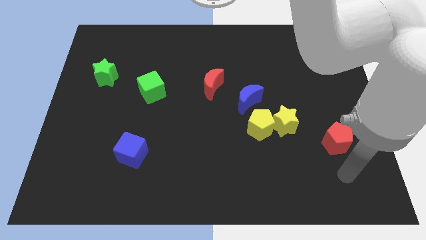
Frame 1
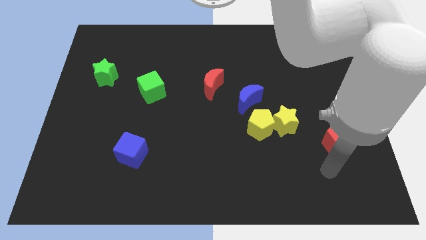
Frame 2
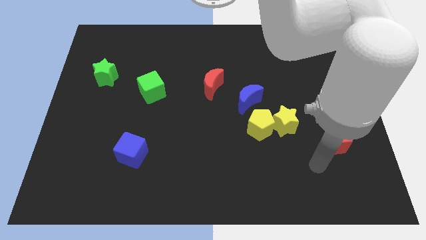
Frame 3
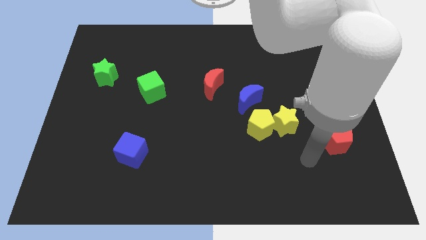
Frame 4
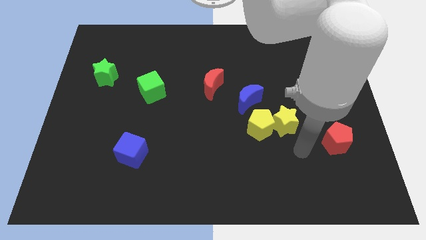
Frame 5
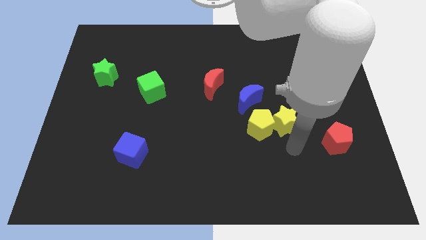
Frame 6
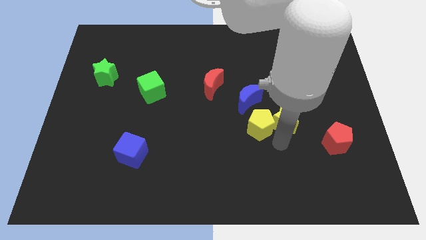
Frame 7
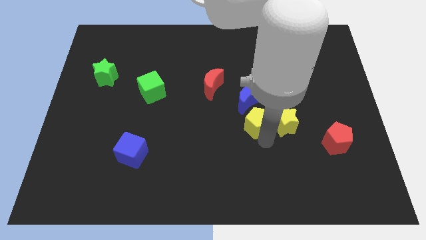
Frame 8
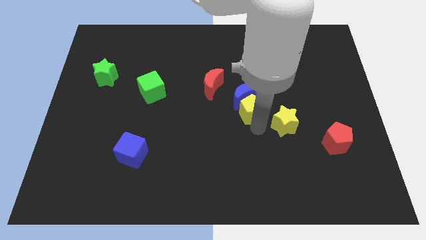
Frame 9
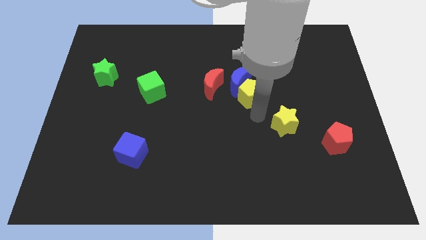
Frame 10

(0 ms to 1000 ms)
separate the yellow star from the yellow pentagon

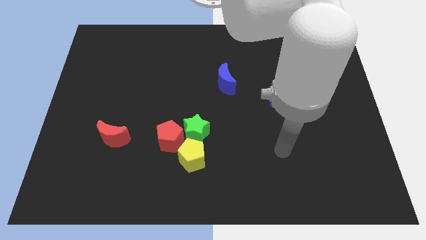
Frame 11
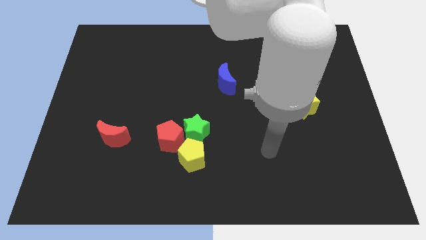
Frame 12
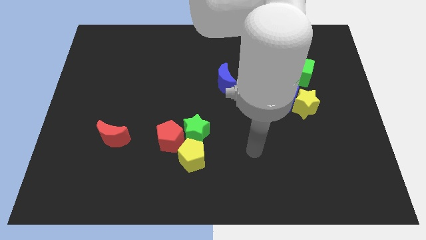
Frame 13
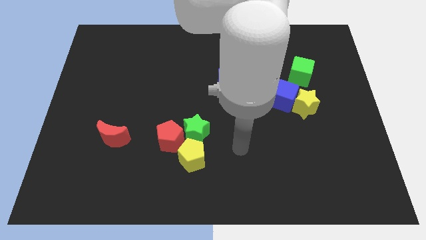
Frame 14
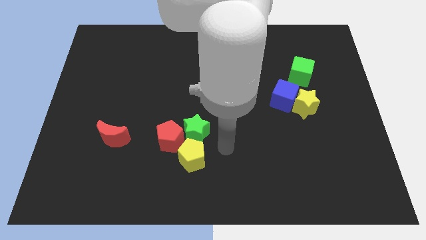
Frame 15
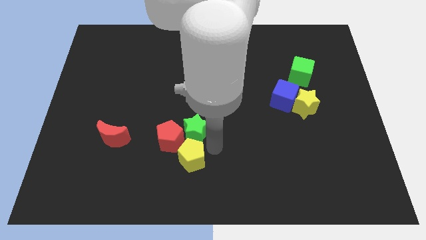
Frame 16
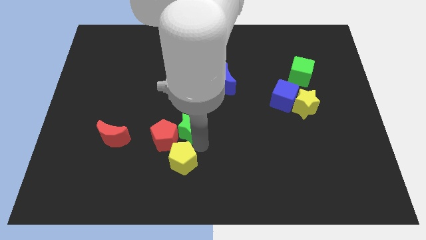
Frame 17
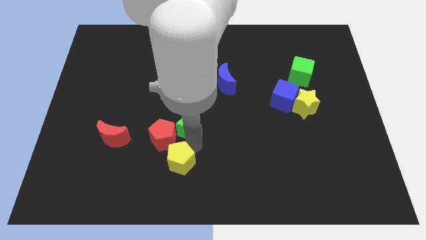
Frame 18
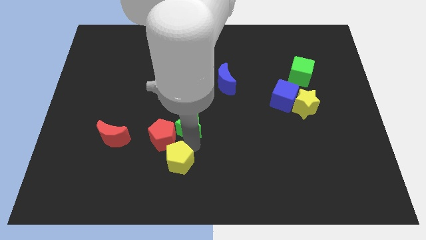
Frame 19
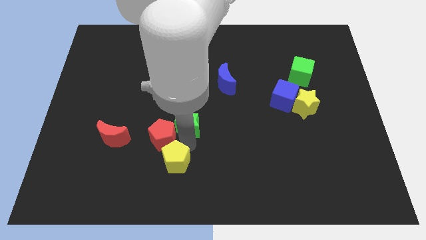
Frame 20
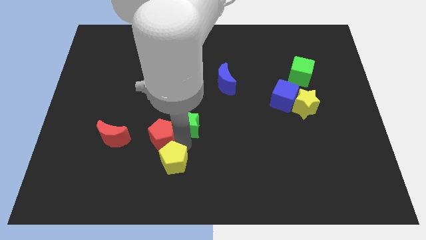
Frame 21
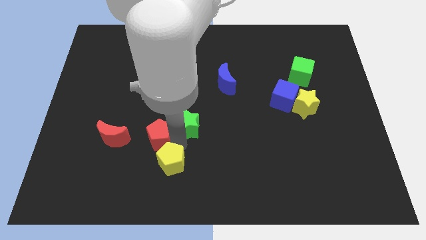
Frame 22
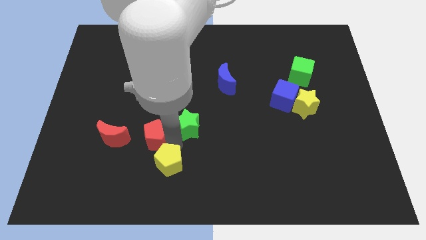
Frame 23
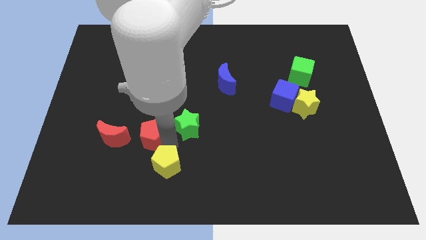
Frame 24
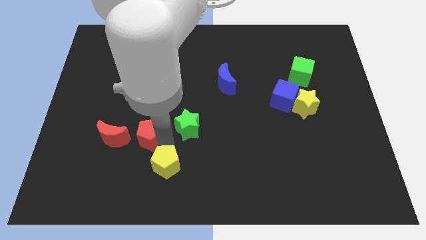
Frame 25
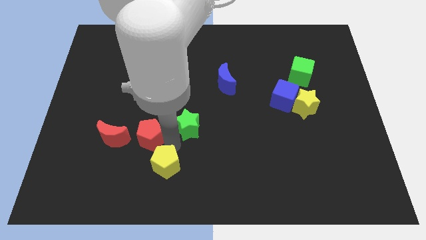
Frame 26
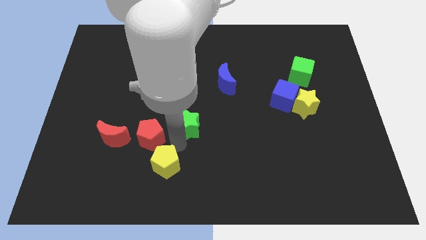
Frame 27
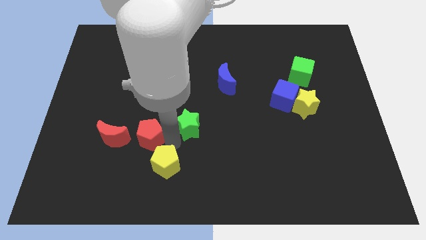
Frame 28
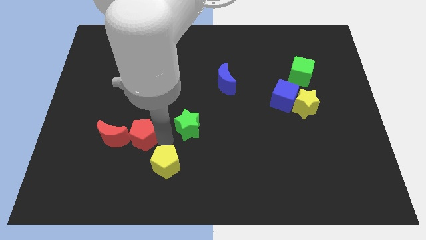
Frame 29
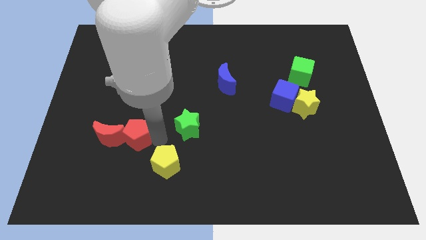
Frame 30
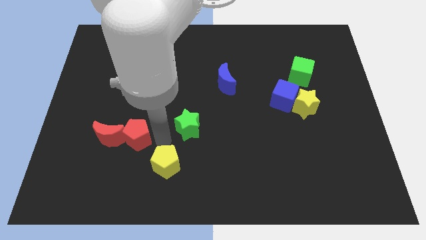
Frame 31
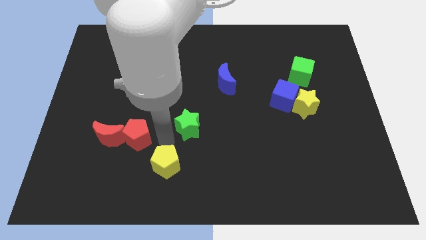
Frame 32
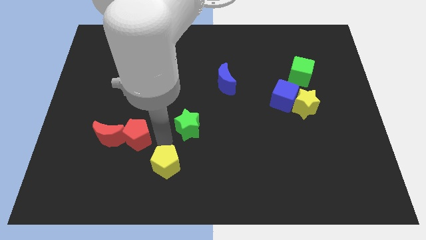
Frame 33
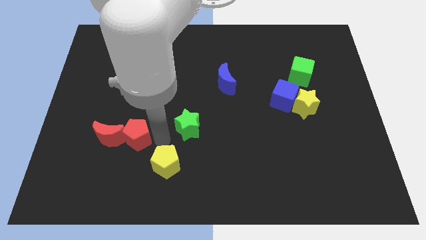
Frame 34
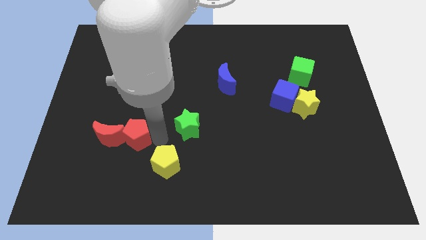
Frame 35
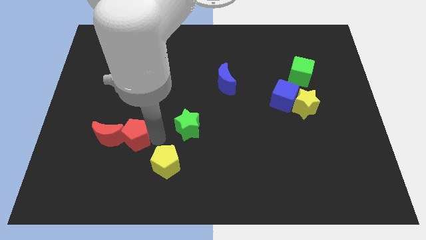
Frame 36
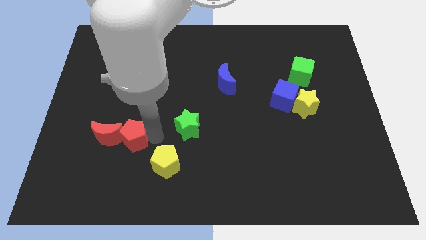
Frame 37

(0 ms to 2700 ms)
separate the red pentagon from the green star and yellow pentagon

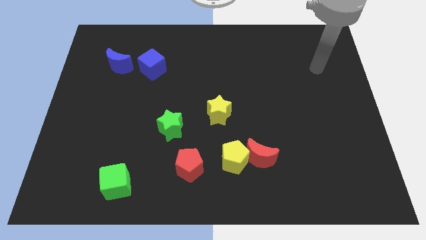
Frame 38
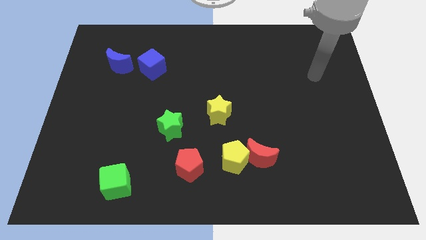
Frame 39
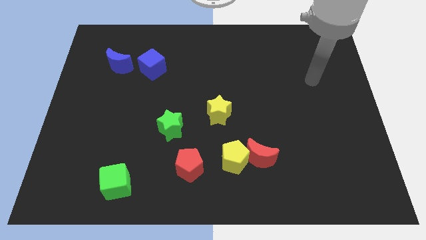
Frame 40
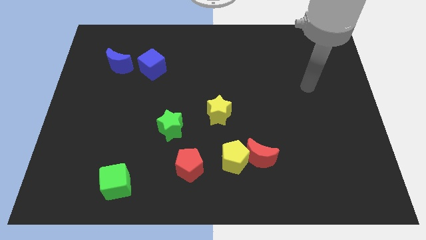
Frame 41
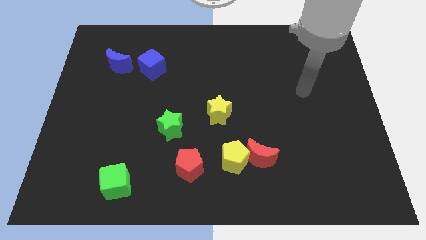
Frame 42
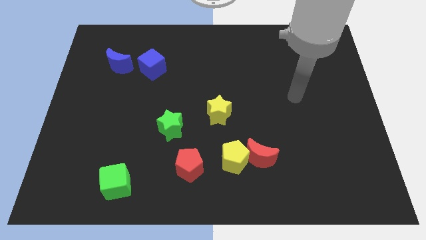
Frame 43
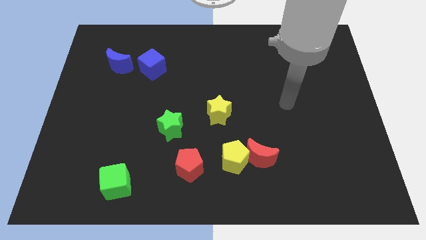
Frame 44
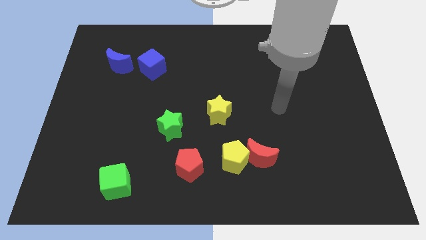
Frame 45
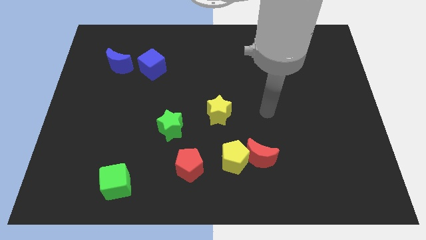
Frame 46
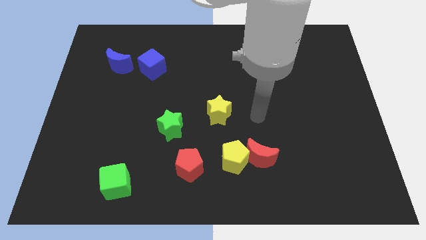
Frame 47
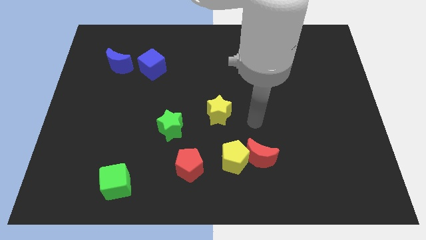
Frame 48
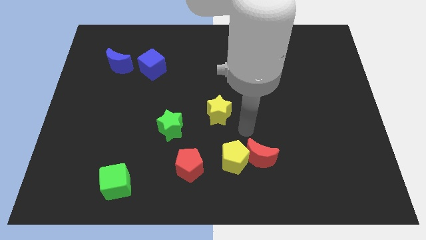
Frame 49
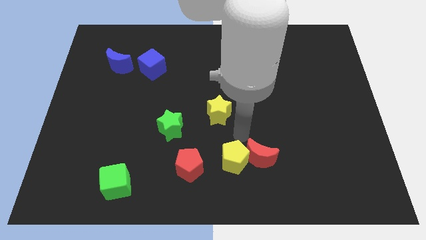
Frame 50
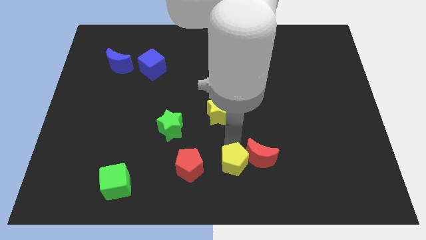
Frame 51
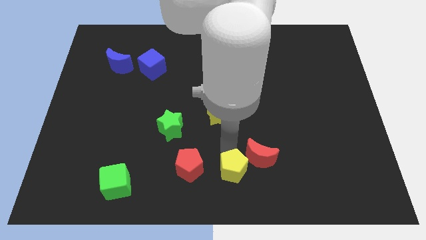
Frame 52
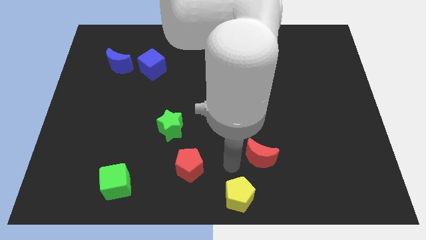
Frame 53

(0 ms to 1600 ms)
move the red moon away from the yellow pentagon

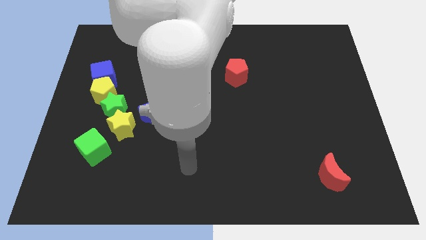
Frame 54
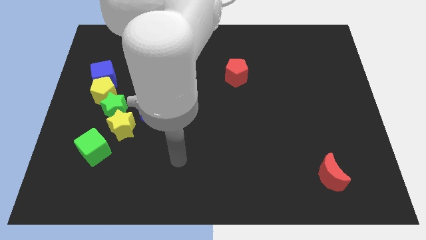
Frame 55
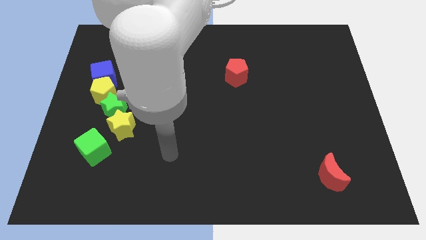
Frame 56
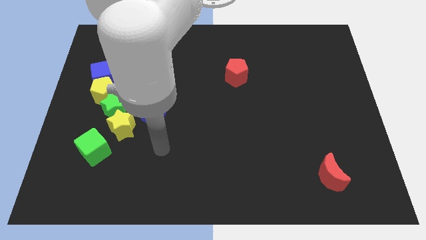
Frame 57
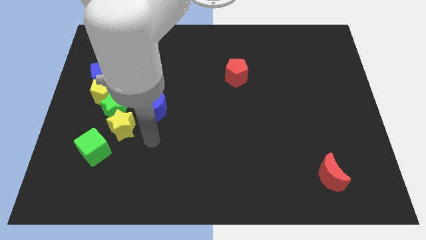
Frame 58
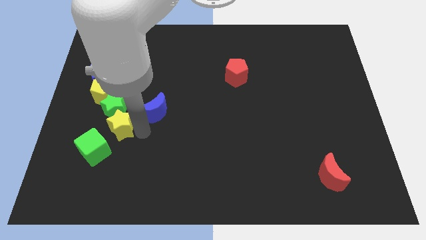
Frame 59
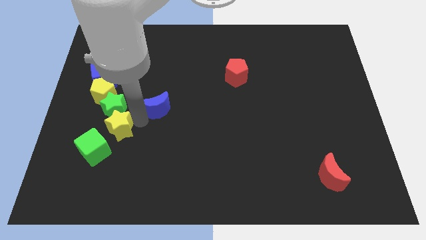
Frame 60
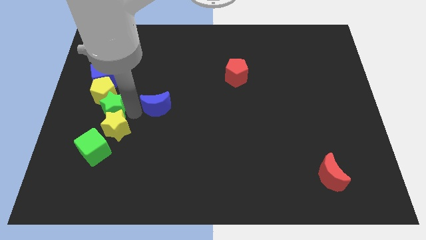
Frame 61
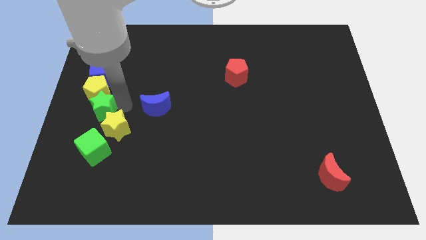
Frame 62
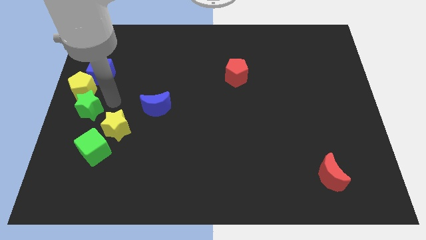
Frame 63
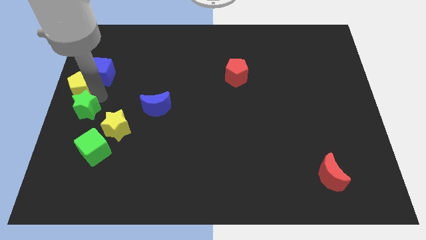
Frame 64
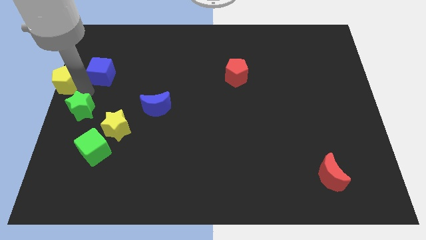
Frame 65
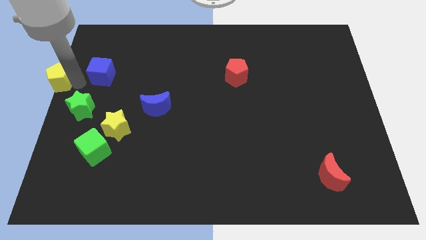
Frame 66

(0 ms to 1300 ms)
pull the blue cube apart from the yellow pentagon

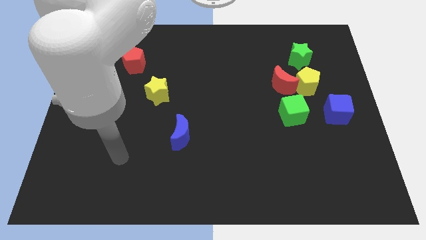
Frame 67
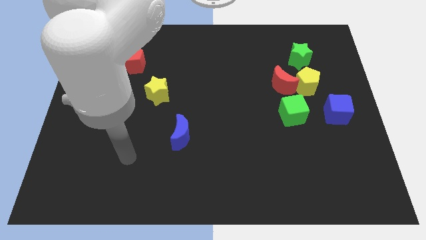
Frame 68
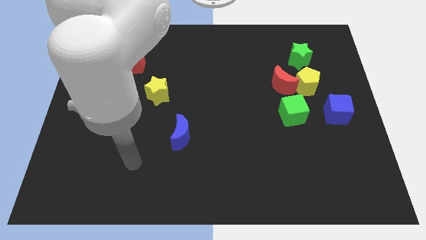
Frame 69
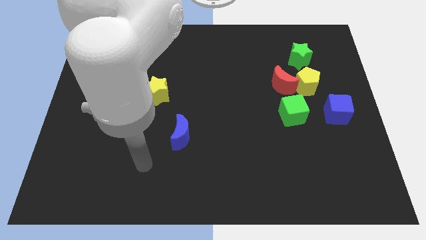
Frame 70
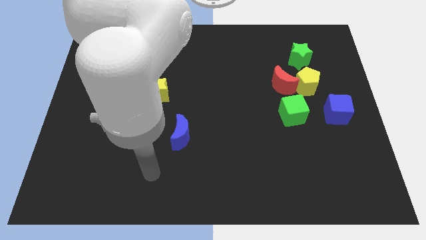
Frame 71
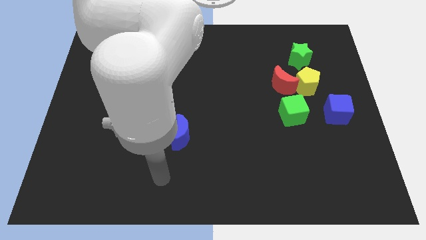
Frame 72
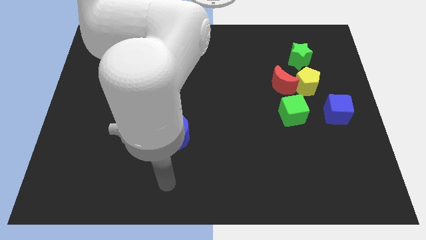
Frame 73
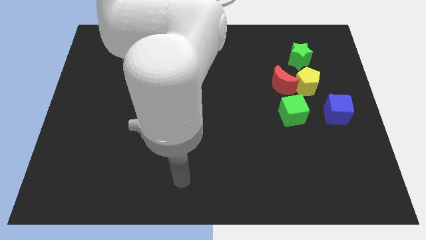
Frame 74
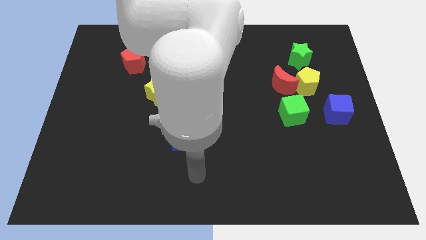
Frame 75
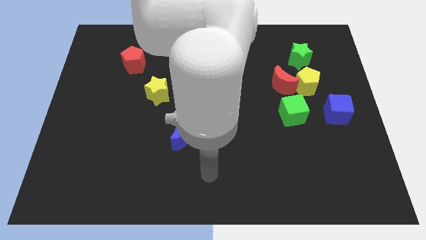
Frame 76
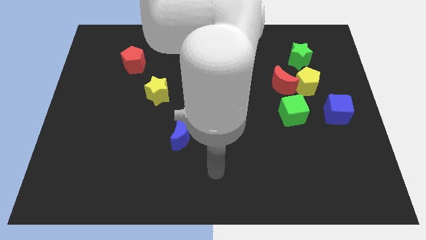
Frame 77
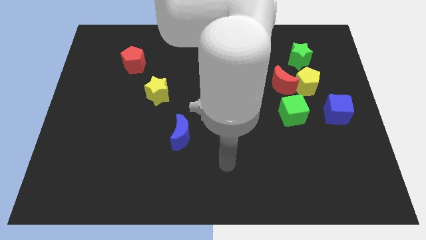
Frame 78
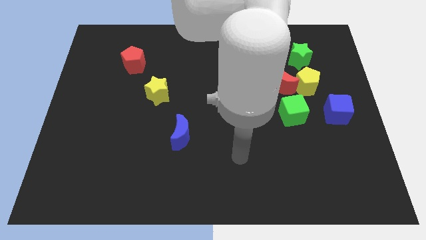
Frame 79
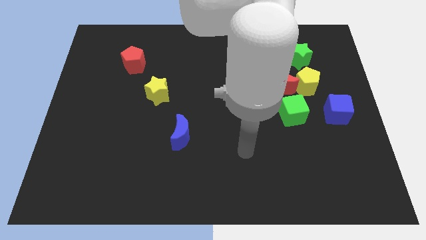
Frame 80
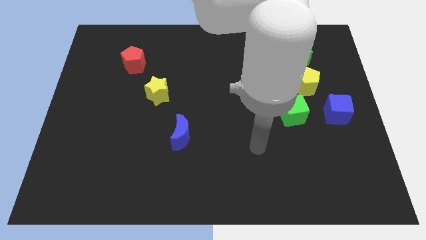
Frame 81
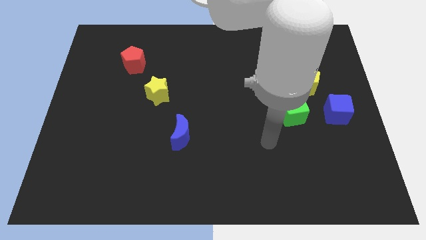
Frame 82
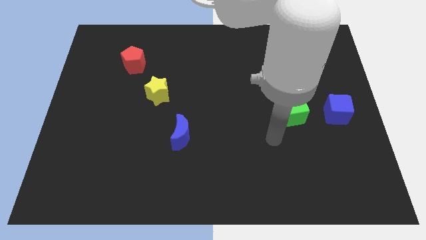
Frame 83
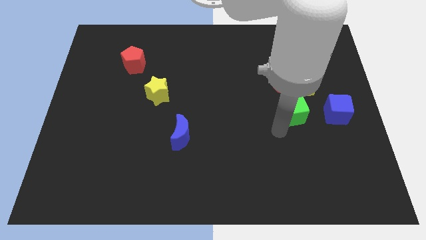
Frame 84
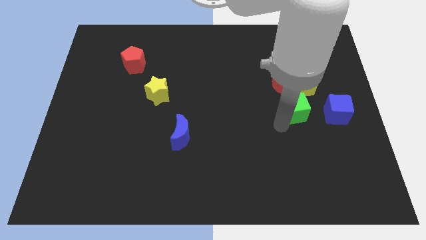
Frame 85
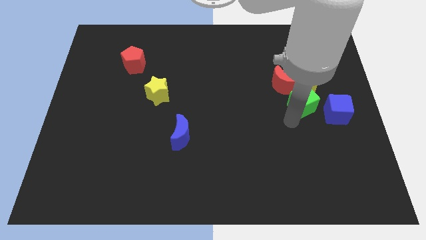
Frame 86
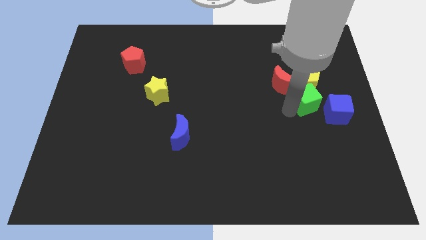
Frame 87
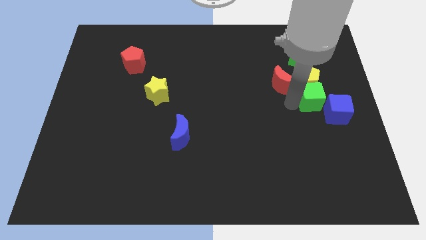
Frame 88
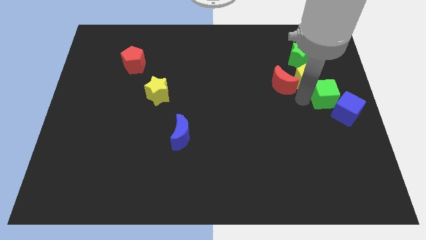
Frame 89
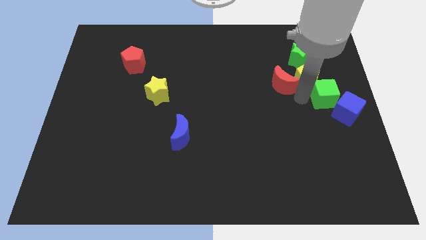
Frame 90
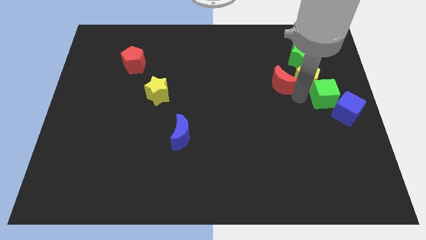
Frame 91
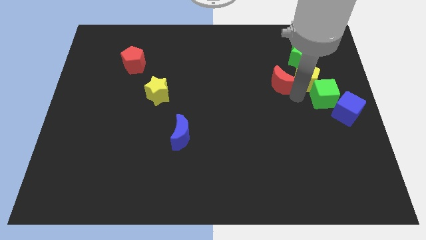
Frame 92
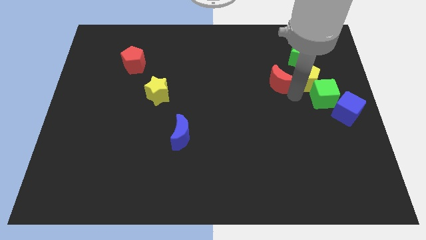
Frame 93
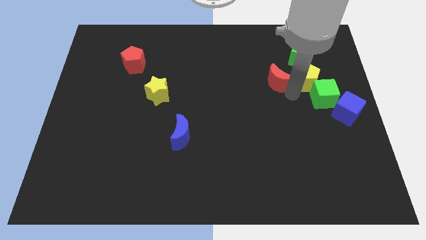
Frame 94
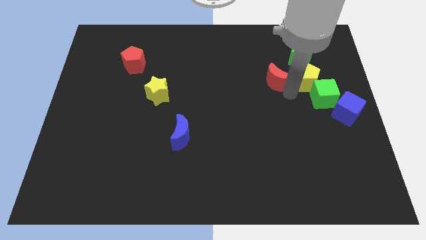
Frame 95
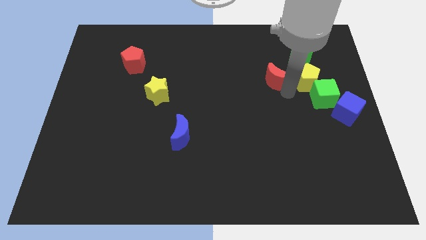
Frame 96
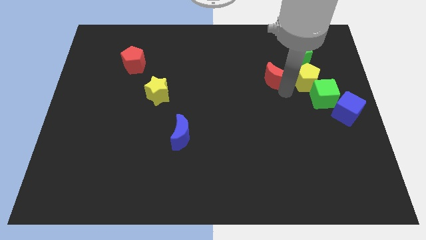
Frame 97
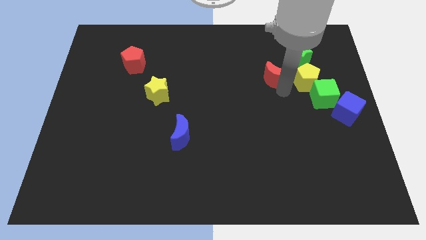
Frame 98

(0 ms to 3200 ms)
pull the red moon apart from the yellow pentagon and green cube
